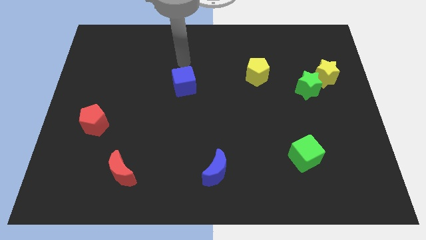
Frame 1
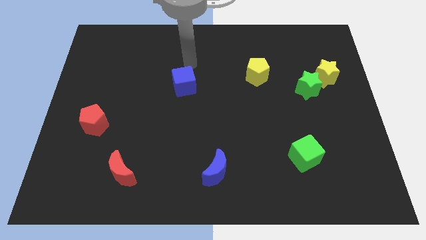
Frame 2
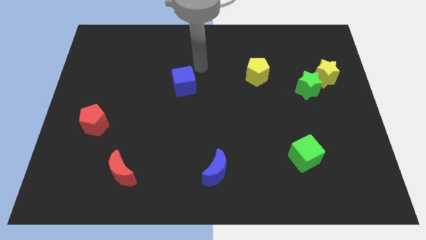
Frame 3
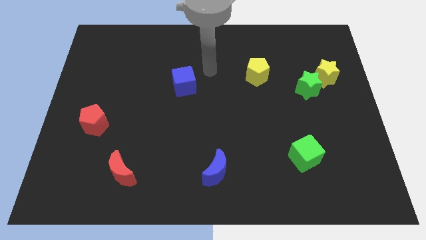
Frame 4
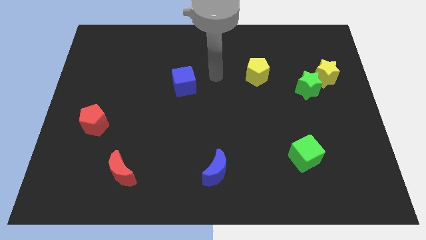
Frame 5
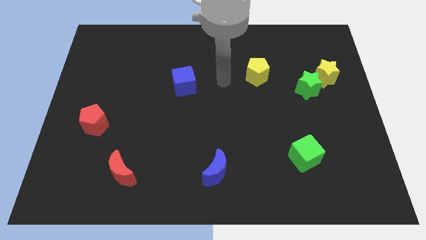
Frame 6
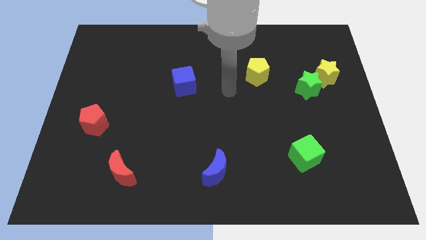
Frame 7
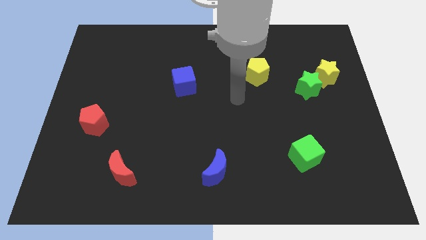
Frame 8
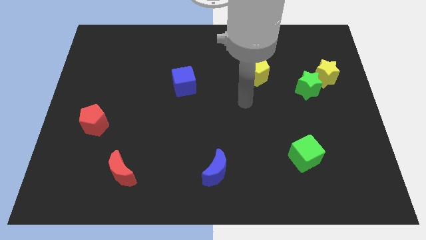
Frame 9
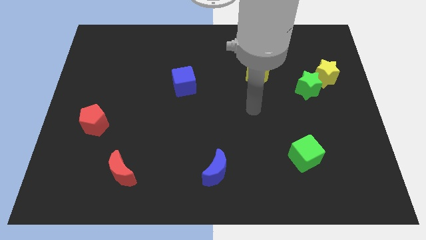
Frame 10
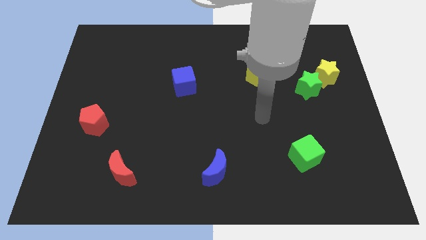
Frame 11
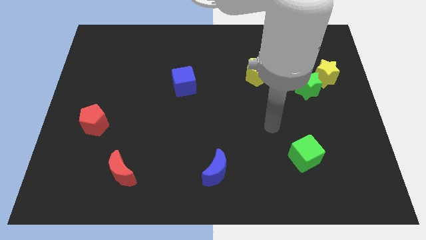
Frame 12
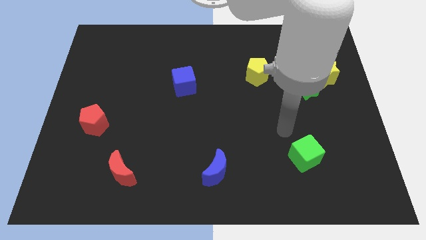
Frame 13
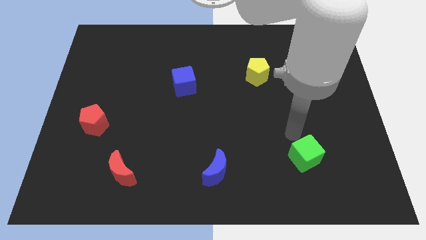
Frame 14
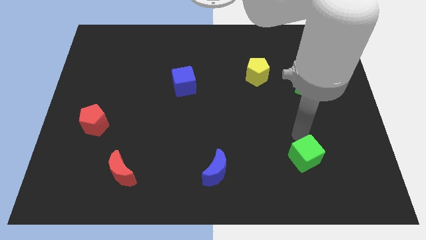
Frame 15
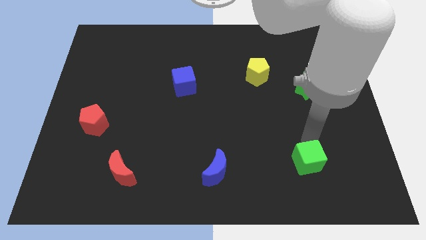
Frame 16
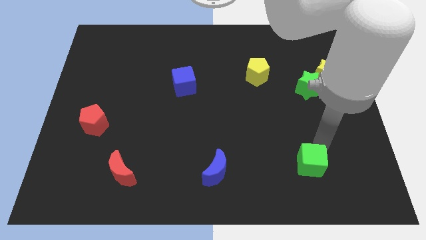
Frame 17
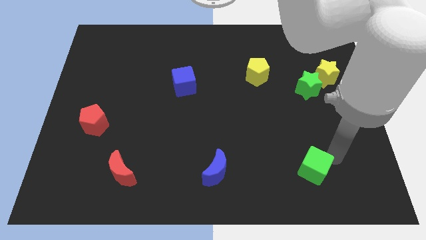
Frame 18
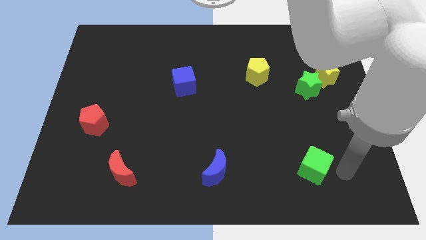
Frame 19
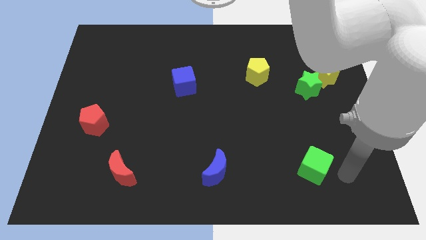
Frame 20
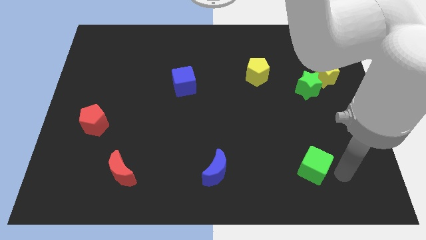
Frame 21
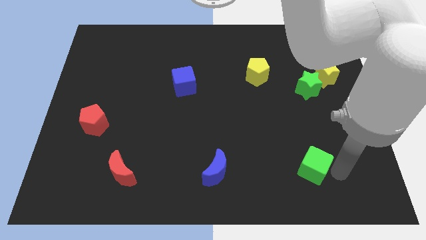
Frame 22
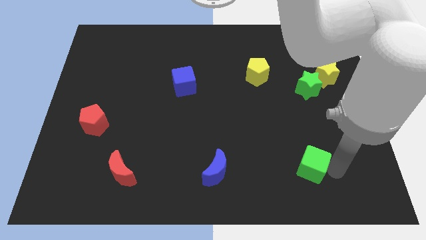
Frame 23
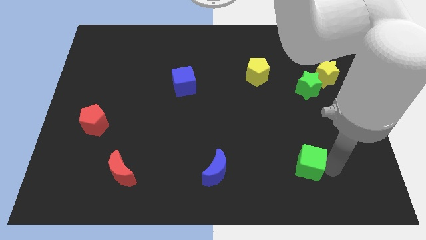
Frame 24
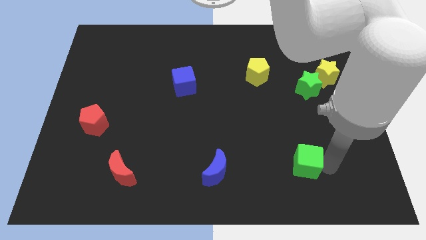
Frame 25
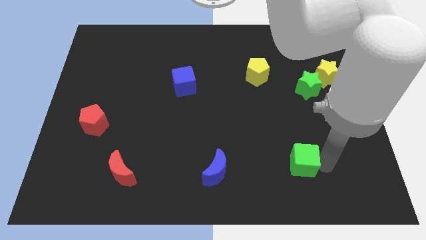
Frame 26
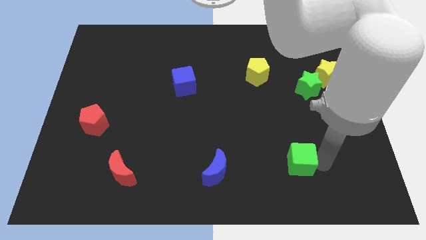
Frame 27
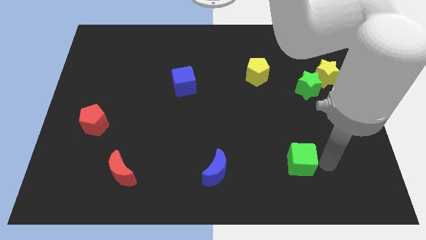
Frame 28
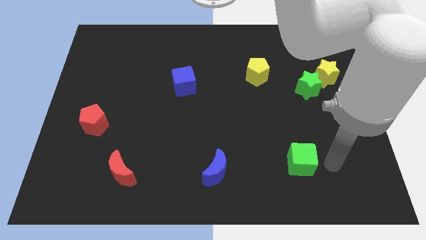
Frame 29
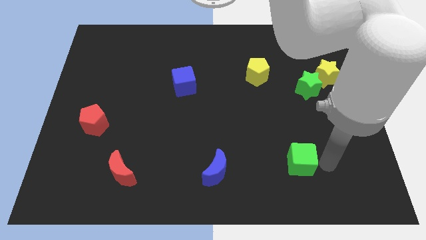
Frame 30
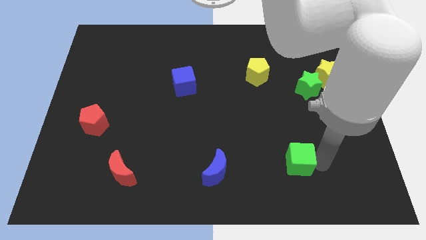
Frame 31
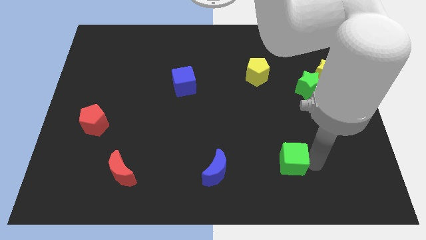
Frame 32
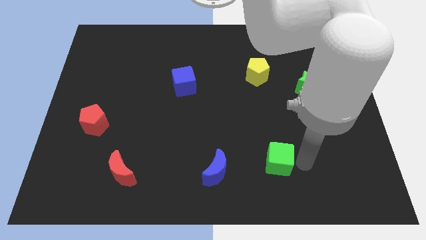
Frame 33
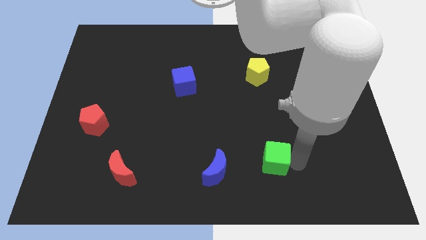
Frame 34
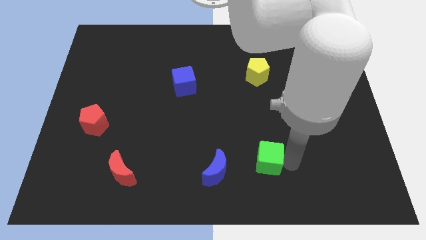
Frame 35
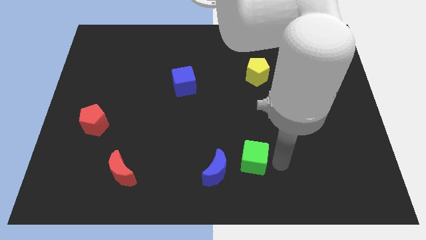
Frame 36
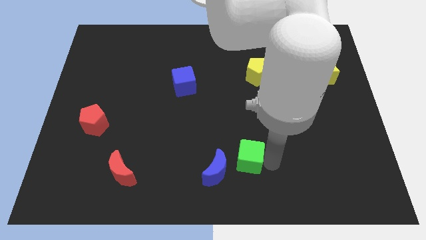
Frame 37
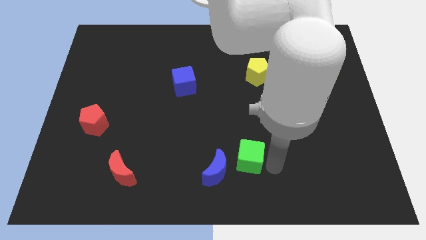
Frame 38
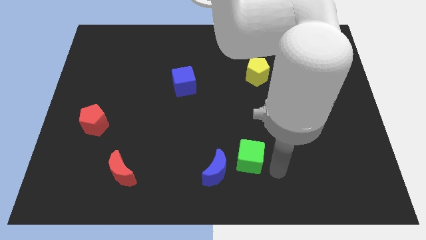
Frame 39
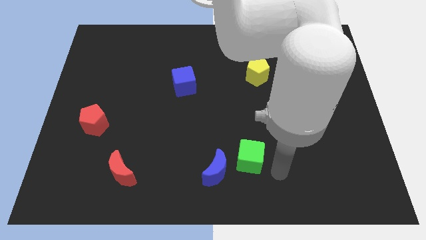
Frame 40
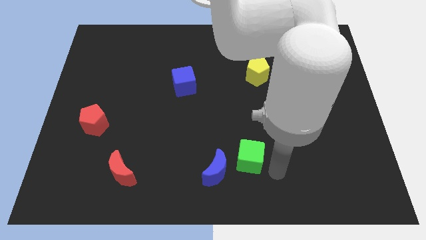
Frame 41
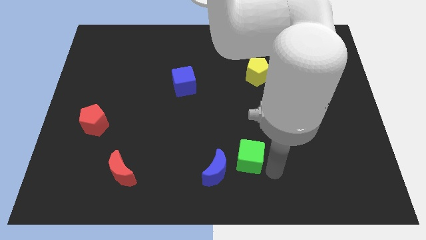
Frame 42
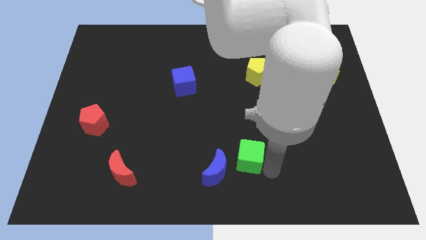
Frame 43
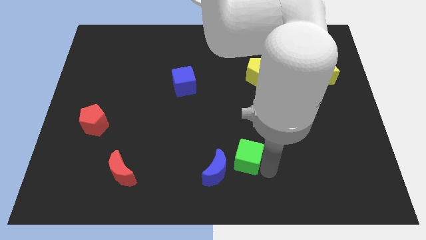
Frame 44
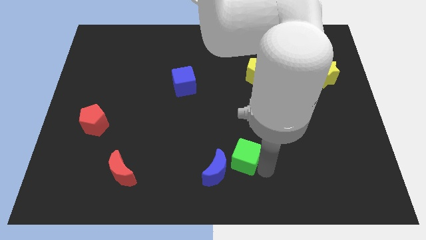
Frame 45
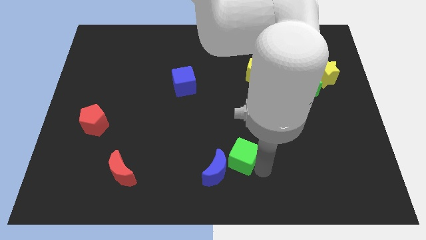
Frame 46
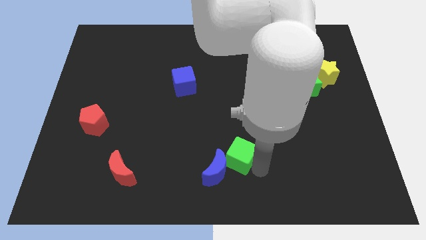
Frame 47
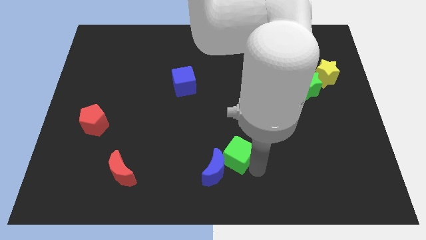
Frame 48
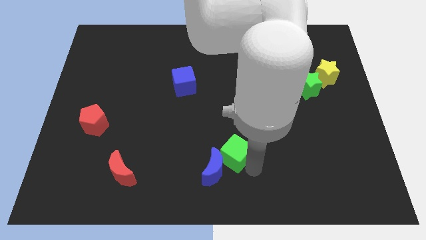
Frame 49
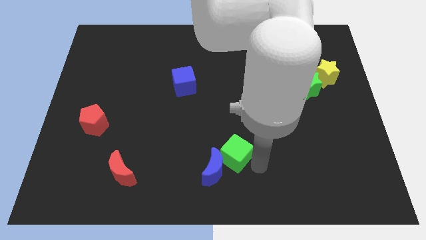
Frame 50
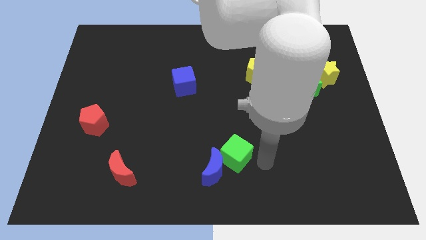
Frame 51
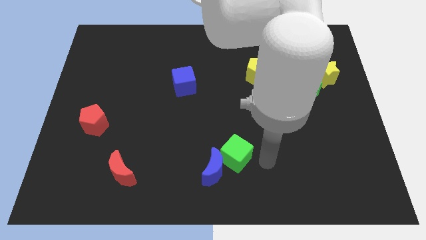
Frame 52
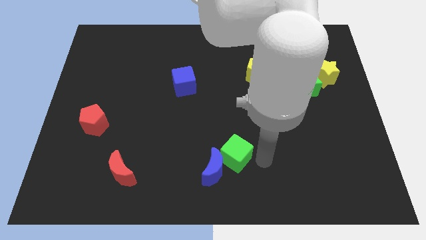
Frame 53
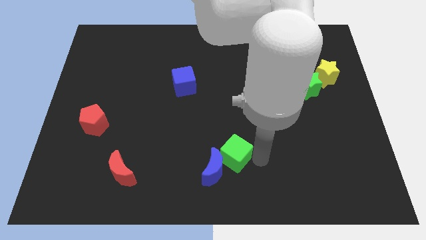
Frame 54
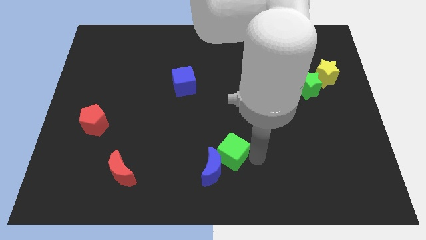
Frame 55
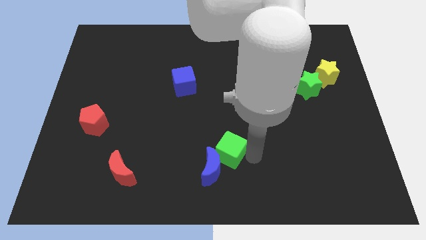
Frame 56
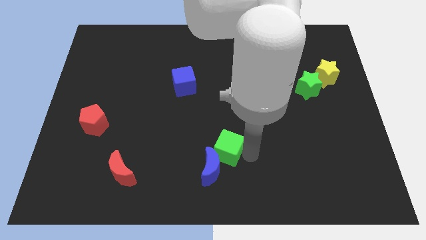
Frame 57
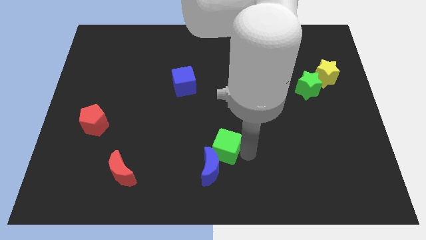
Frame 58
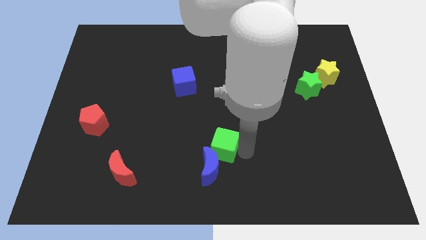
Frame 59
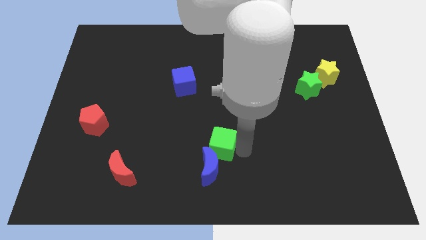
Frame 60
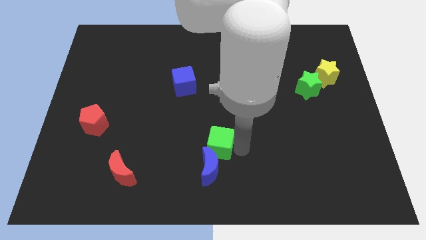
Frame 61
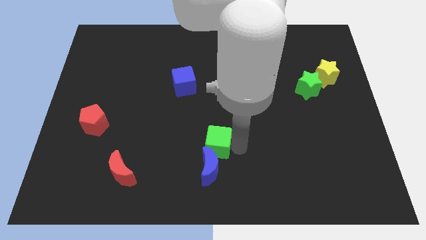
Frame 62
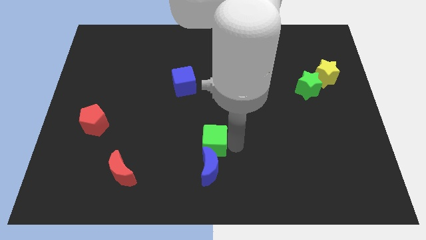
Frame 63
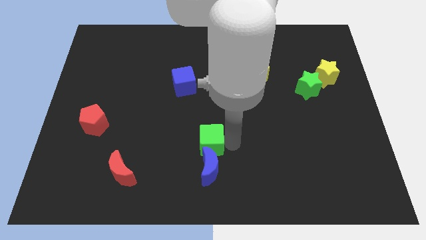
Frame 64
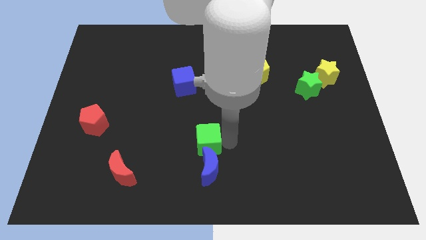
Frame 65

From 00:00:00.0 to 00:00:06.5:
push the green cube left

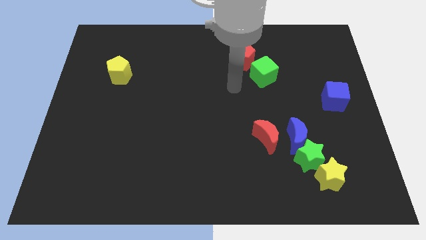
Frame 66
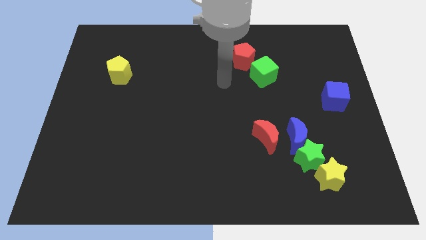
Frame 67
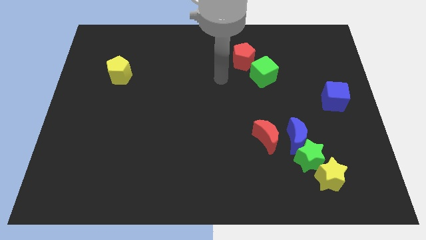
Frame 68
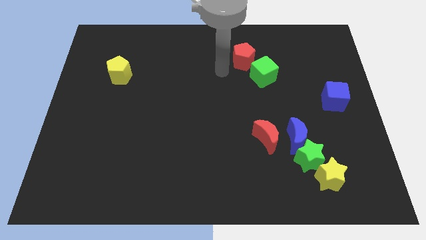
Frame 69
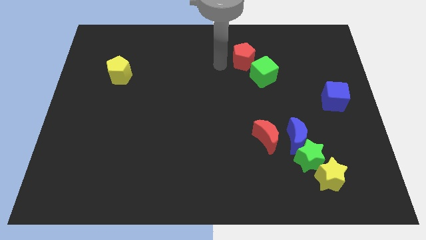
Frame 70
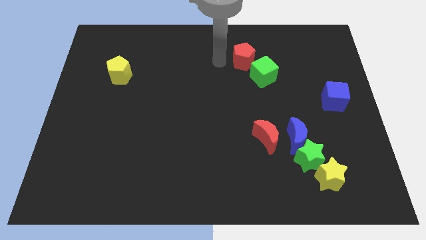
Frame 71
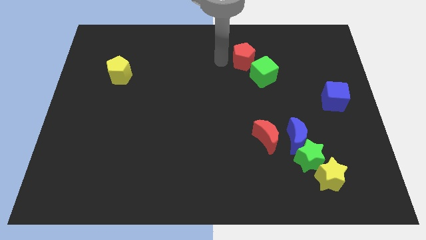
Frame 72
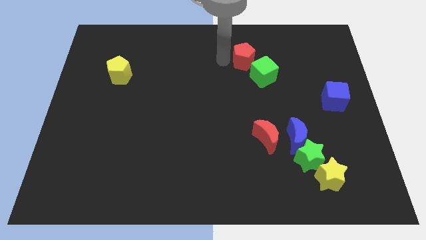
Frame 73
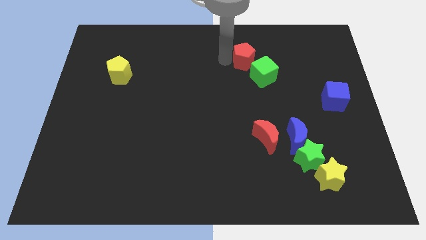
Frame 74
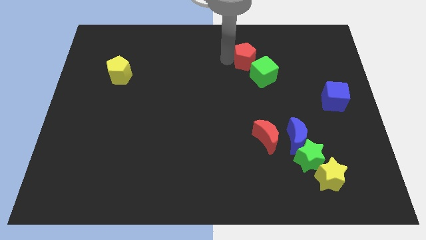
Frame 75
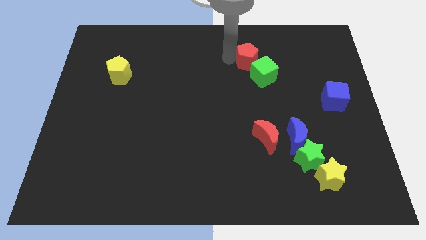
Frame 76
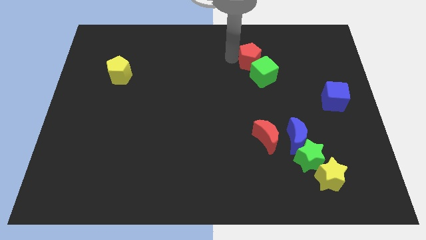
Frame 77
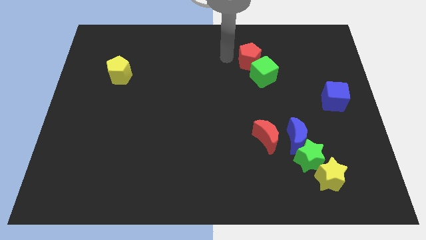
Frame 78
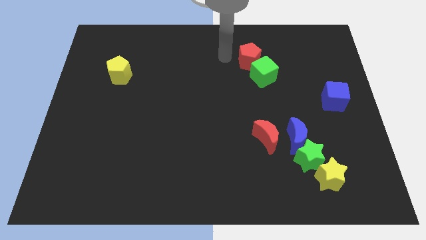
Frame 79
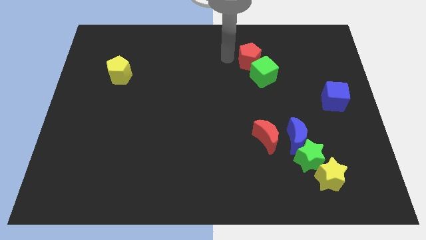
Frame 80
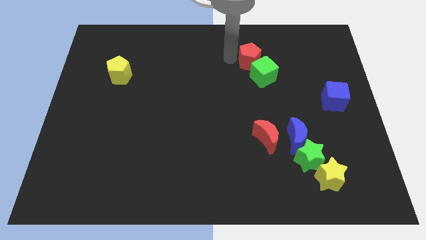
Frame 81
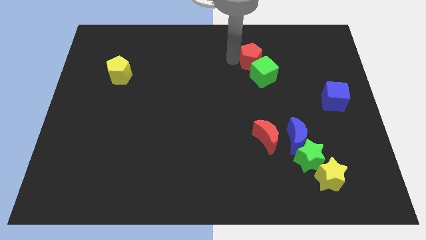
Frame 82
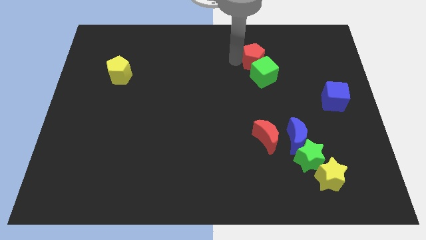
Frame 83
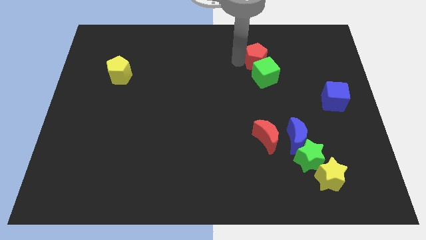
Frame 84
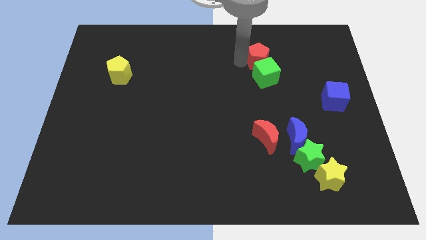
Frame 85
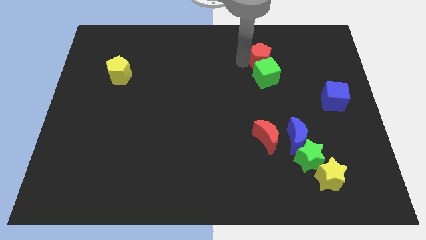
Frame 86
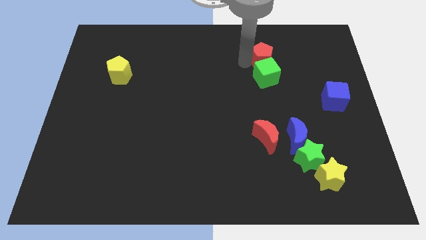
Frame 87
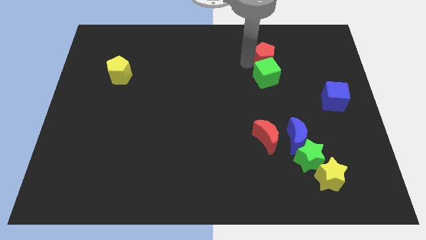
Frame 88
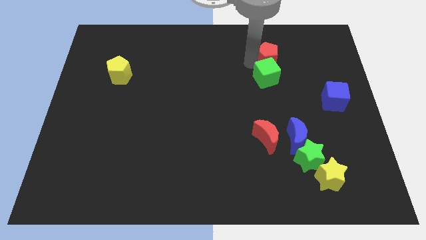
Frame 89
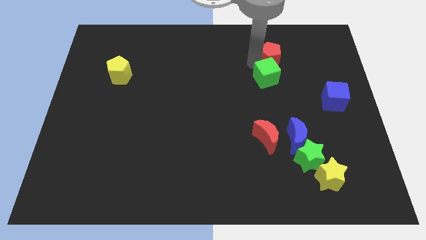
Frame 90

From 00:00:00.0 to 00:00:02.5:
move the red pentagon a bit right
